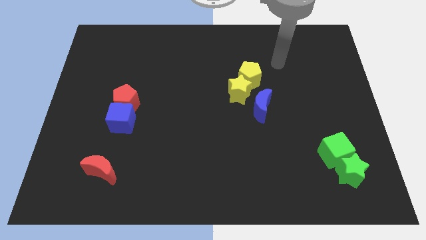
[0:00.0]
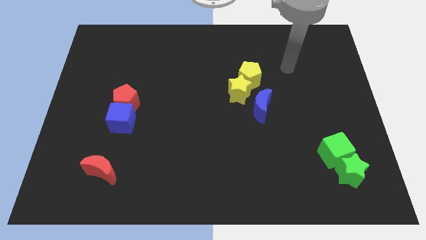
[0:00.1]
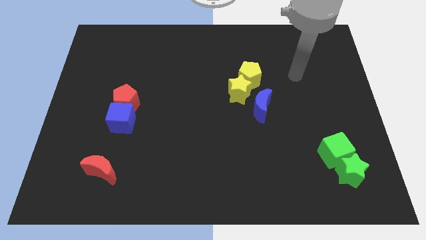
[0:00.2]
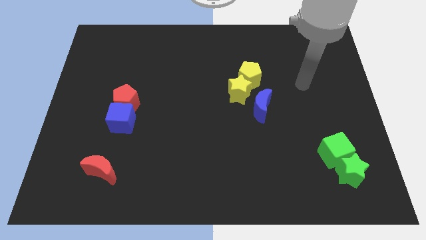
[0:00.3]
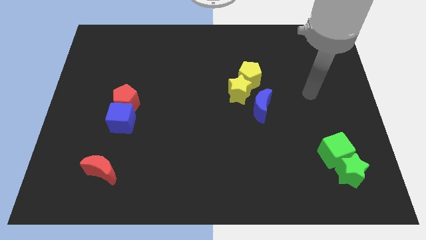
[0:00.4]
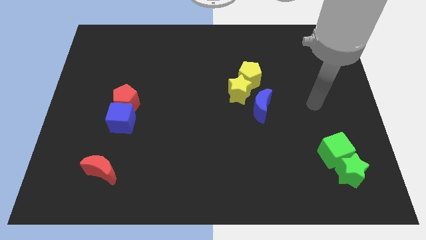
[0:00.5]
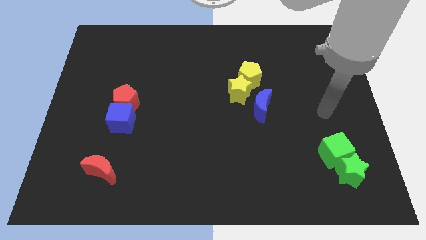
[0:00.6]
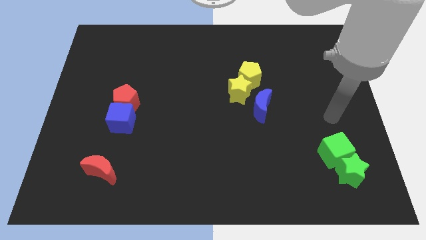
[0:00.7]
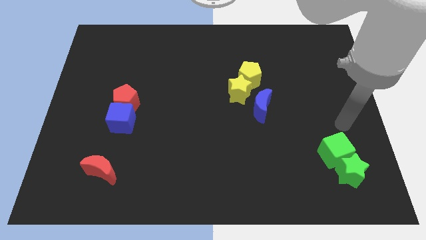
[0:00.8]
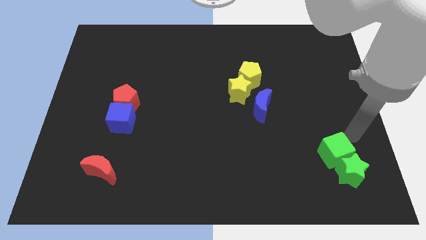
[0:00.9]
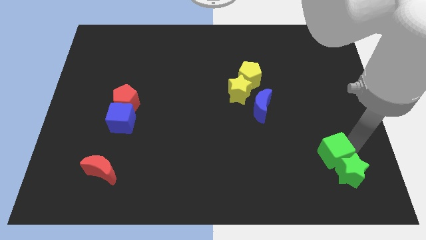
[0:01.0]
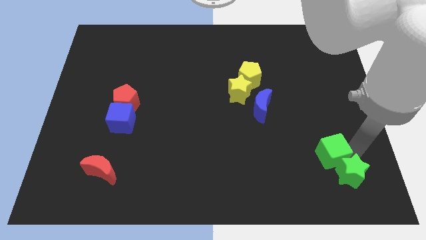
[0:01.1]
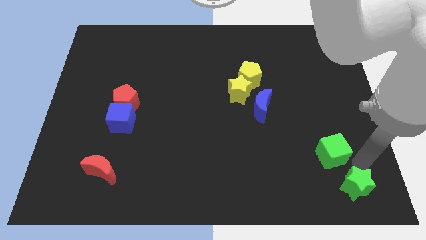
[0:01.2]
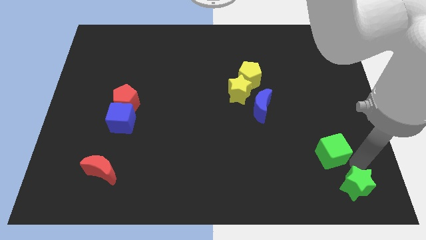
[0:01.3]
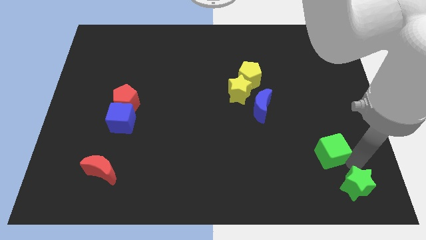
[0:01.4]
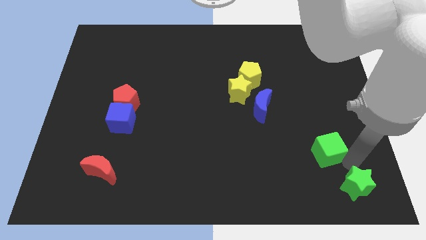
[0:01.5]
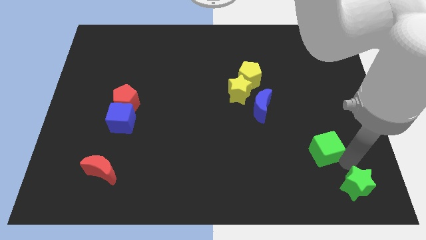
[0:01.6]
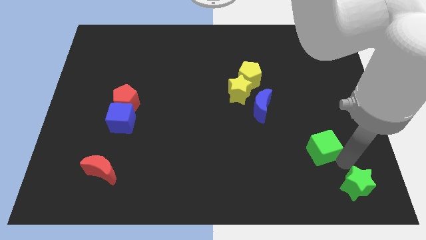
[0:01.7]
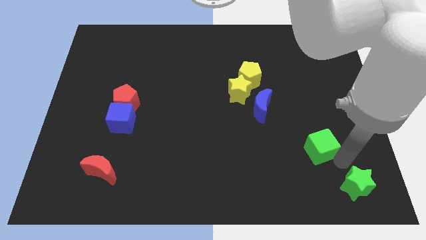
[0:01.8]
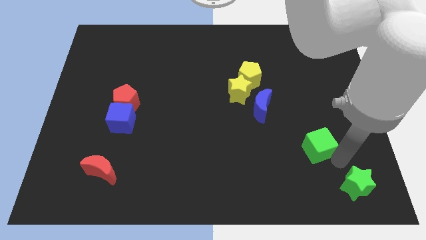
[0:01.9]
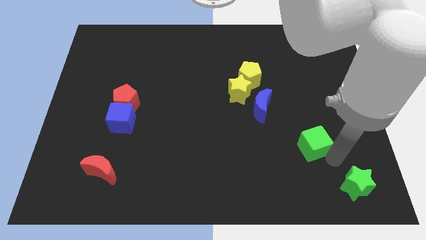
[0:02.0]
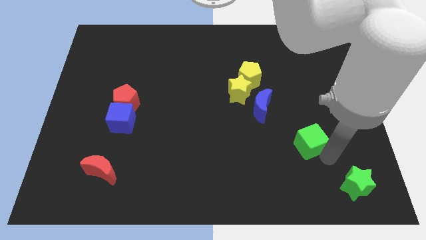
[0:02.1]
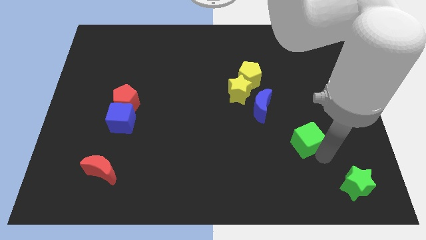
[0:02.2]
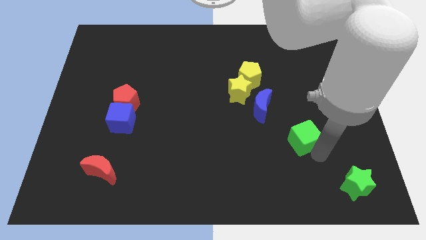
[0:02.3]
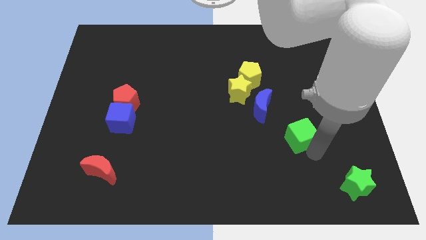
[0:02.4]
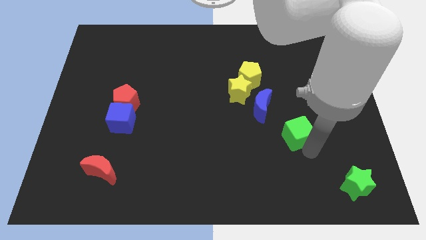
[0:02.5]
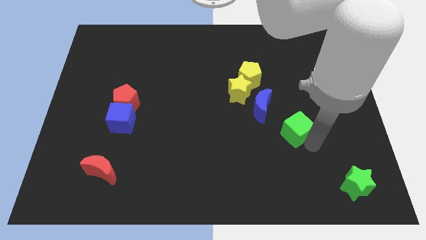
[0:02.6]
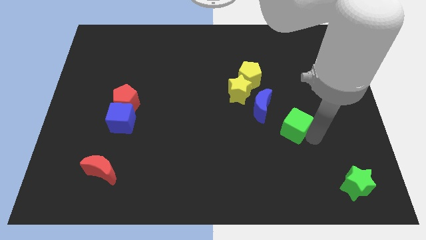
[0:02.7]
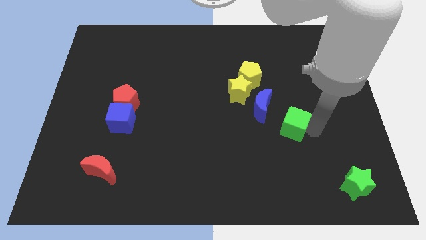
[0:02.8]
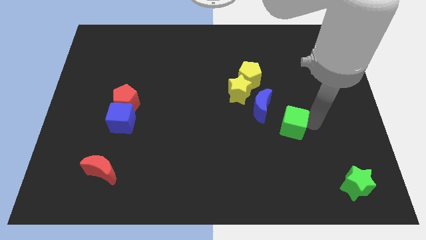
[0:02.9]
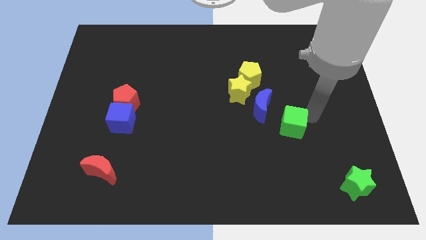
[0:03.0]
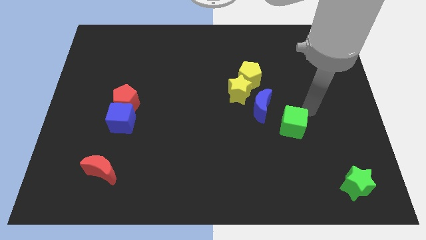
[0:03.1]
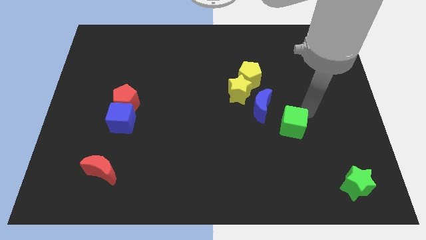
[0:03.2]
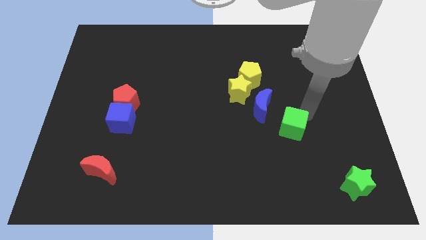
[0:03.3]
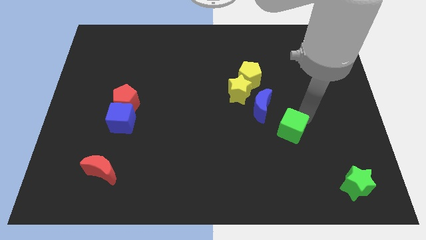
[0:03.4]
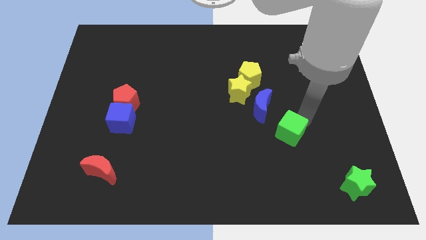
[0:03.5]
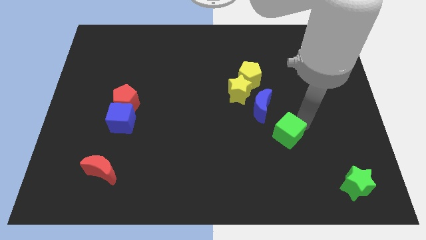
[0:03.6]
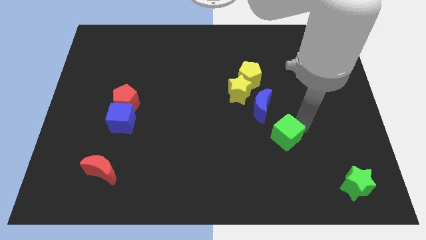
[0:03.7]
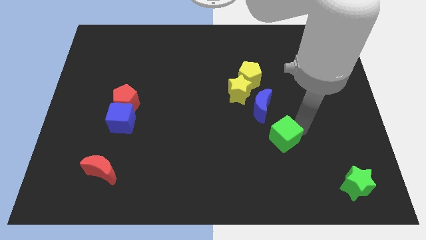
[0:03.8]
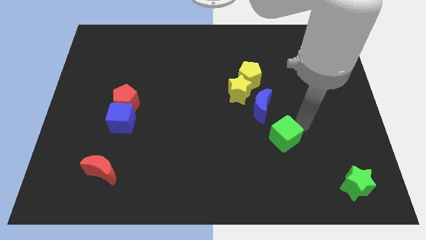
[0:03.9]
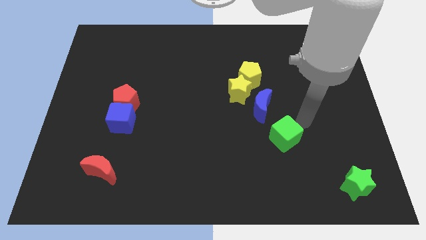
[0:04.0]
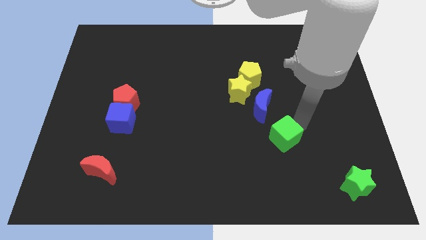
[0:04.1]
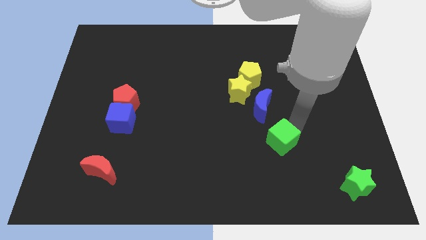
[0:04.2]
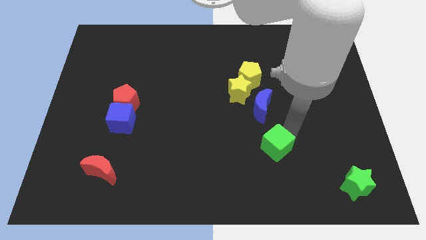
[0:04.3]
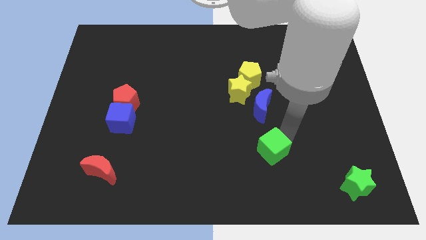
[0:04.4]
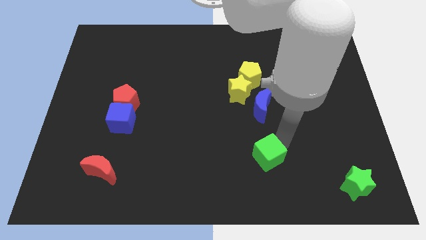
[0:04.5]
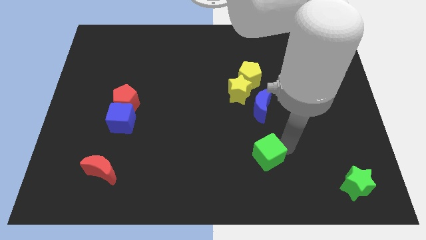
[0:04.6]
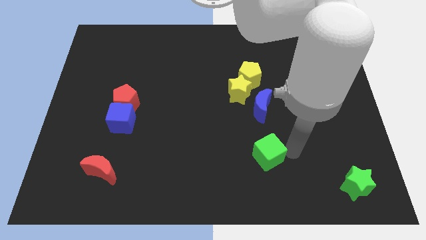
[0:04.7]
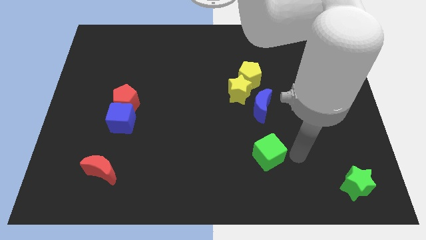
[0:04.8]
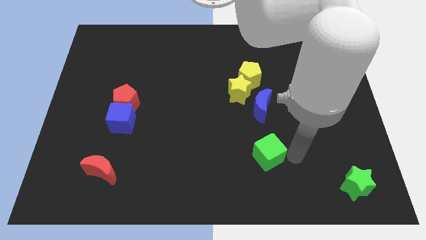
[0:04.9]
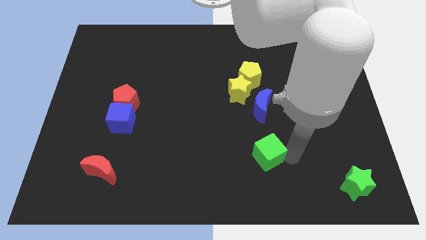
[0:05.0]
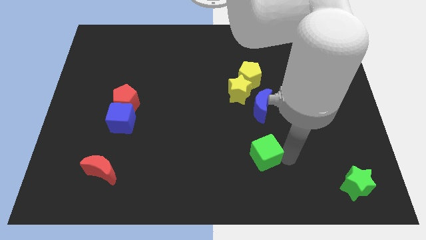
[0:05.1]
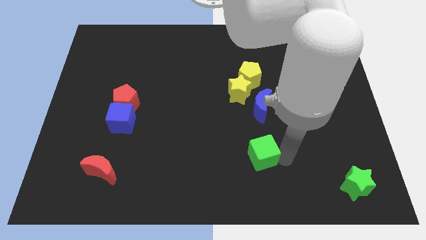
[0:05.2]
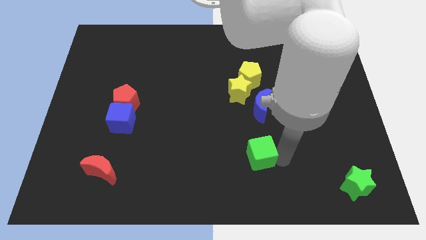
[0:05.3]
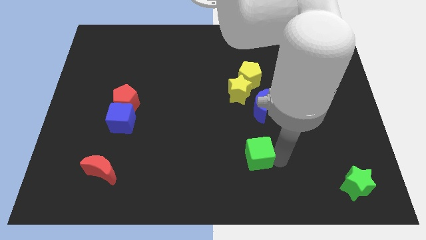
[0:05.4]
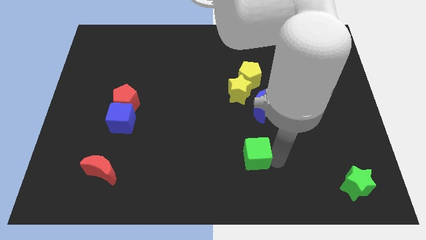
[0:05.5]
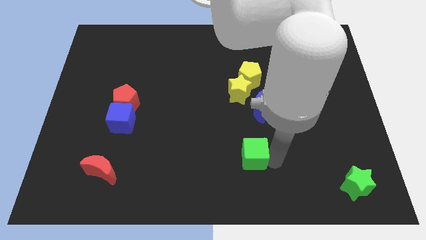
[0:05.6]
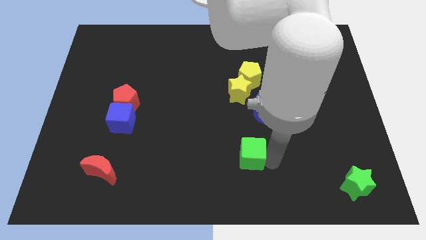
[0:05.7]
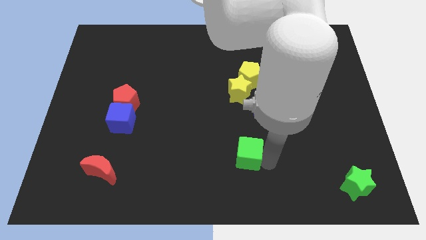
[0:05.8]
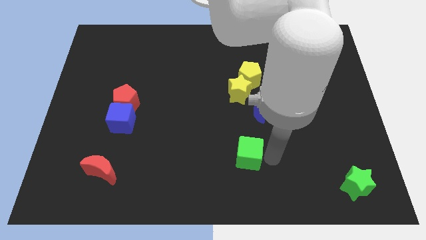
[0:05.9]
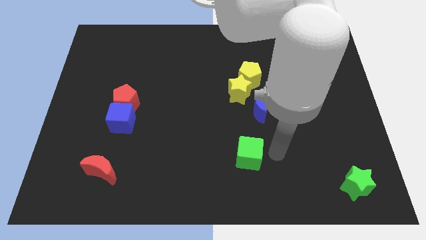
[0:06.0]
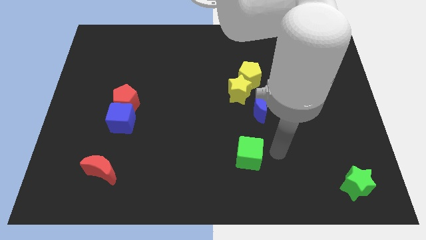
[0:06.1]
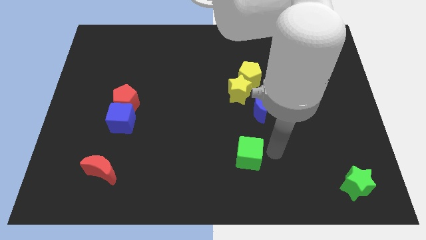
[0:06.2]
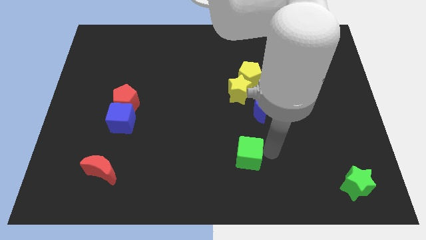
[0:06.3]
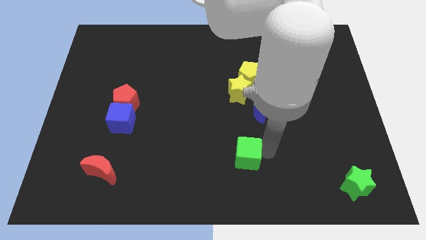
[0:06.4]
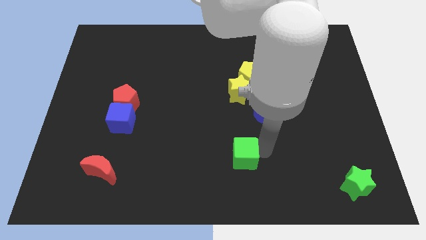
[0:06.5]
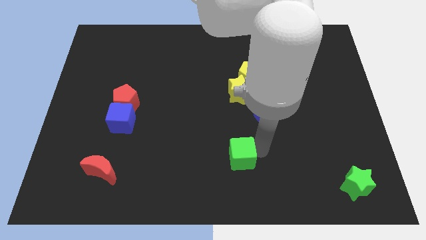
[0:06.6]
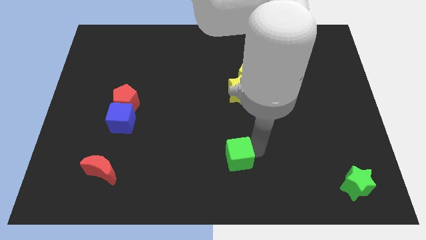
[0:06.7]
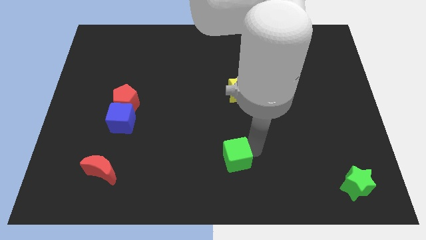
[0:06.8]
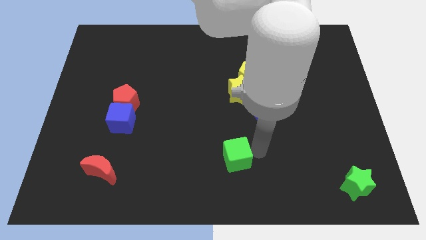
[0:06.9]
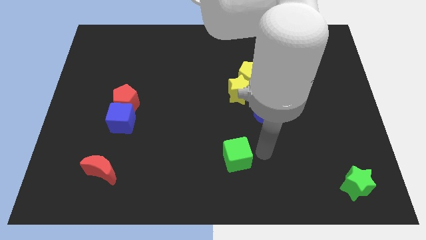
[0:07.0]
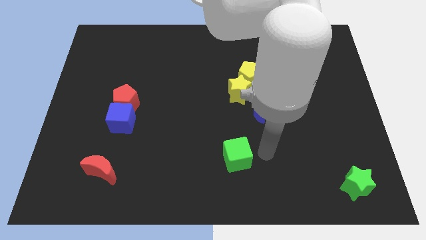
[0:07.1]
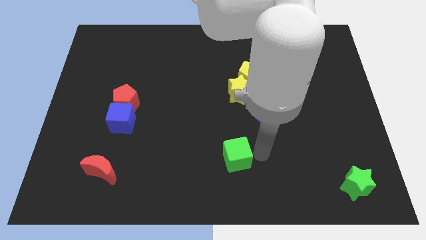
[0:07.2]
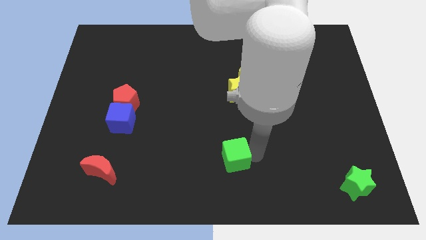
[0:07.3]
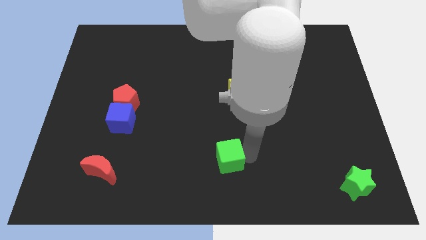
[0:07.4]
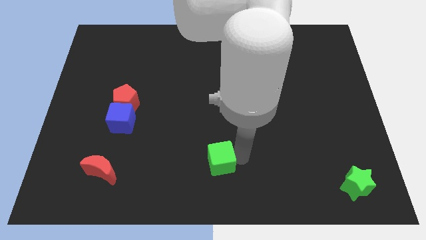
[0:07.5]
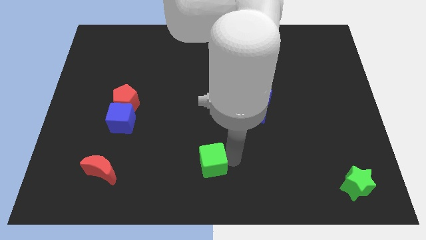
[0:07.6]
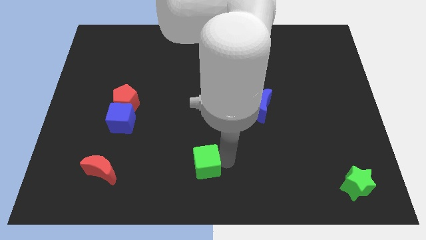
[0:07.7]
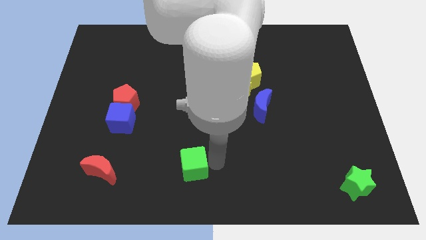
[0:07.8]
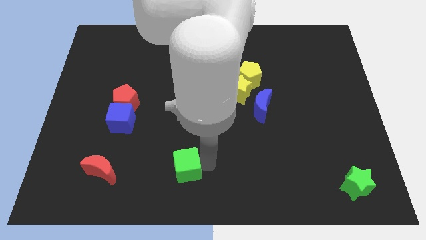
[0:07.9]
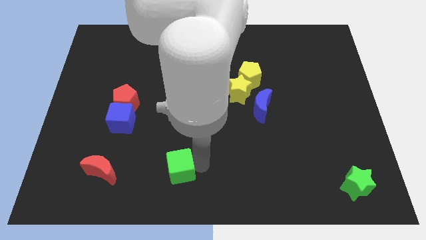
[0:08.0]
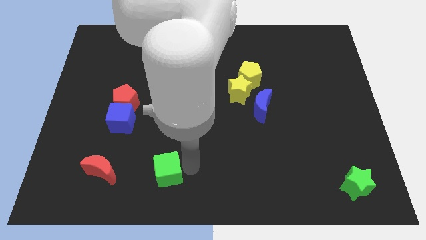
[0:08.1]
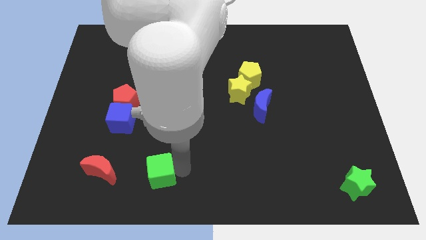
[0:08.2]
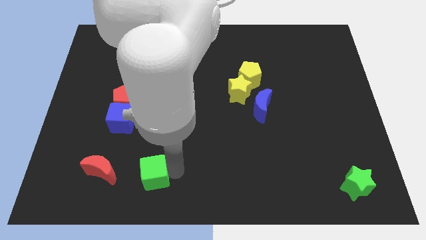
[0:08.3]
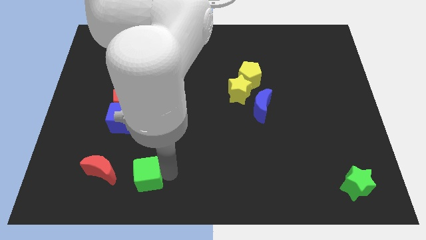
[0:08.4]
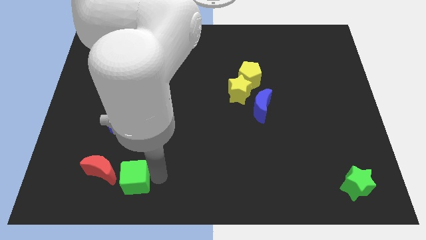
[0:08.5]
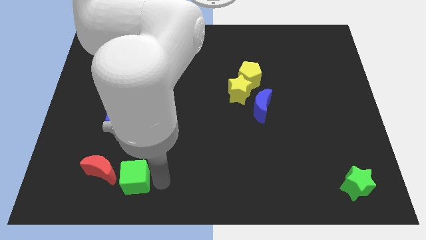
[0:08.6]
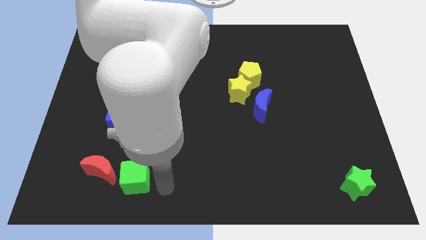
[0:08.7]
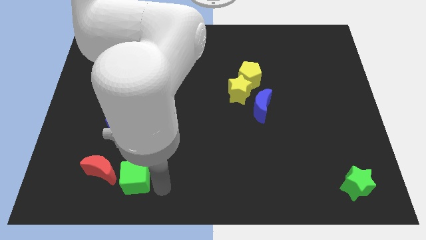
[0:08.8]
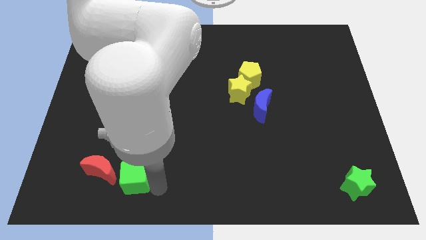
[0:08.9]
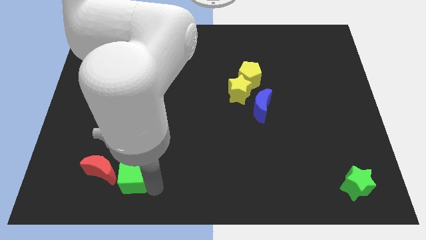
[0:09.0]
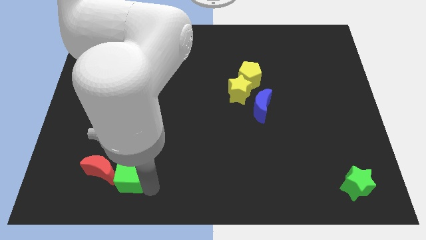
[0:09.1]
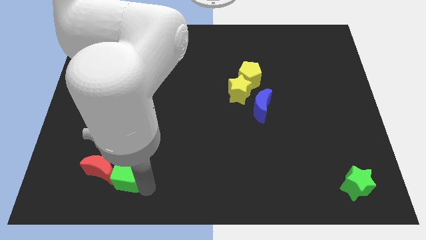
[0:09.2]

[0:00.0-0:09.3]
push the green cube close to the red moon
